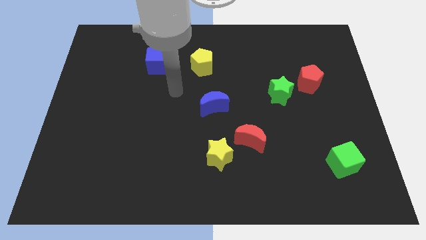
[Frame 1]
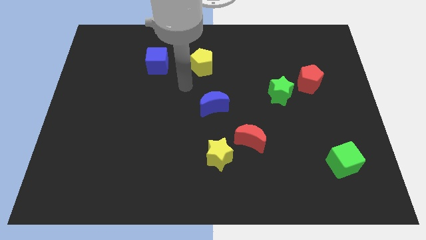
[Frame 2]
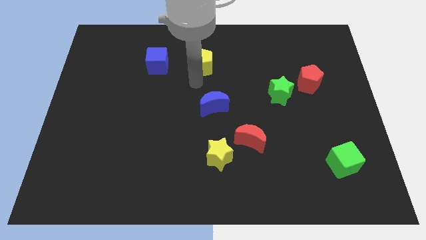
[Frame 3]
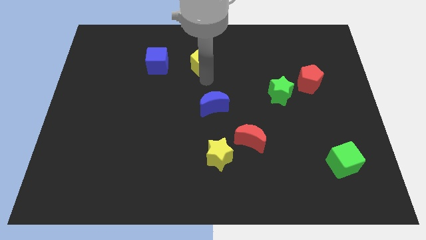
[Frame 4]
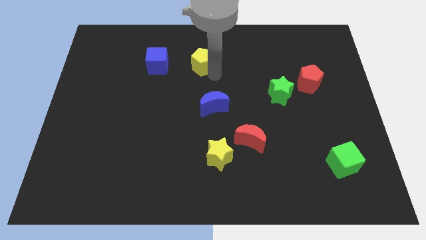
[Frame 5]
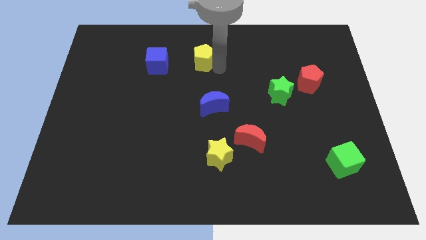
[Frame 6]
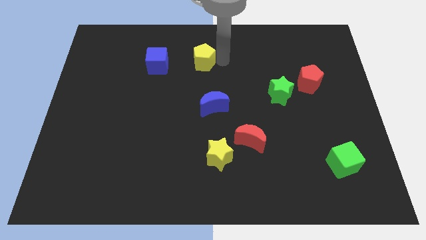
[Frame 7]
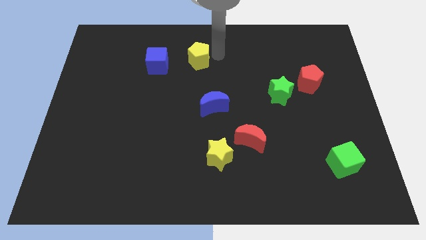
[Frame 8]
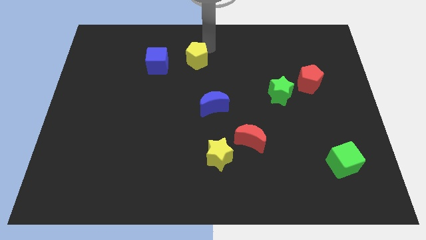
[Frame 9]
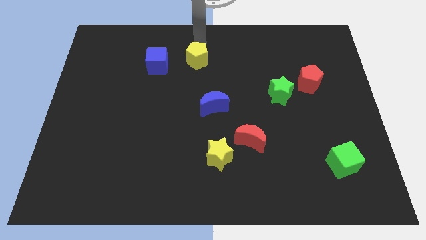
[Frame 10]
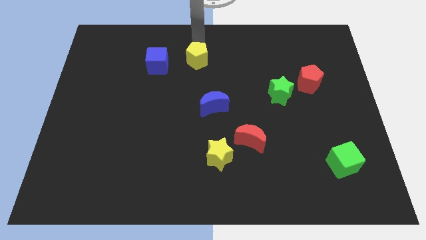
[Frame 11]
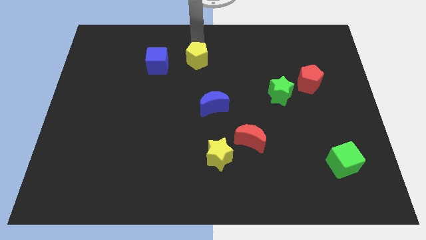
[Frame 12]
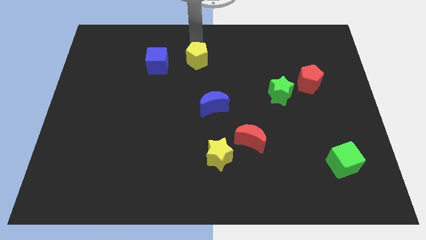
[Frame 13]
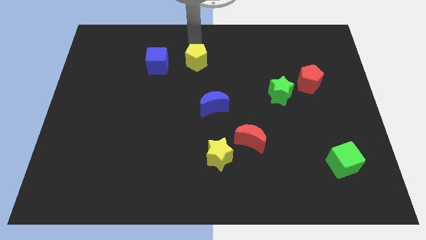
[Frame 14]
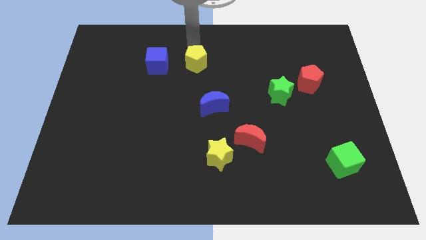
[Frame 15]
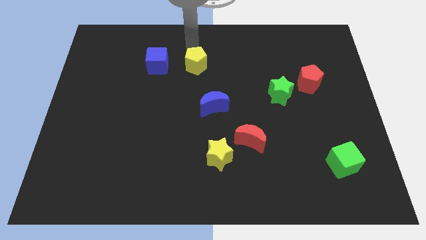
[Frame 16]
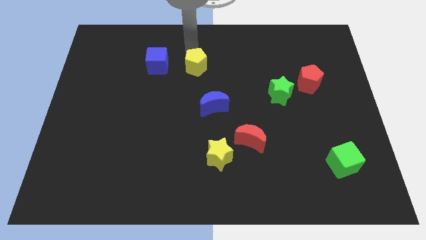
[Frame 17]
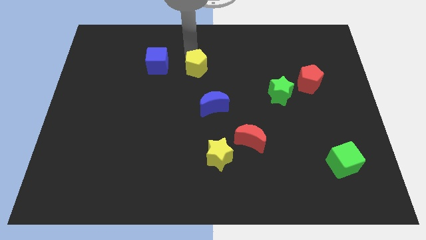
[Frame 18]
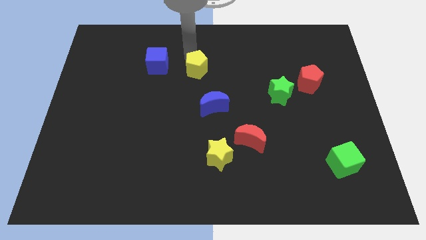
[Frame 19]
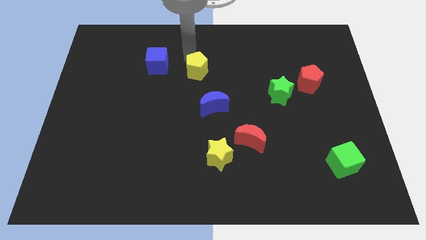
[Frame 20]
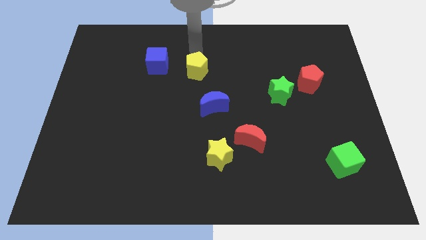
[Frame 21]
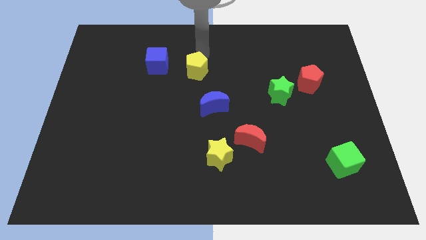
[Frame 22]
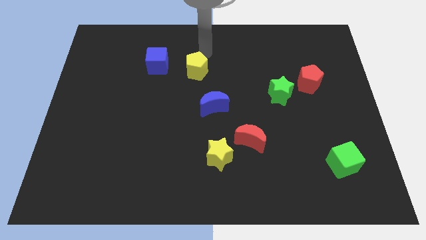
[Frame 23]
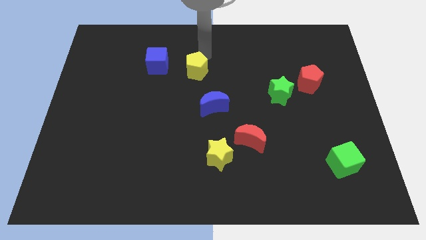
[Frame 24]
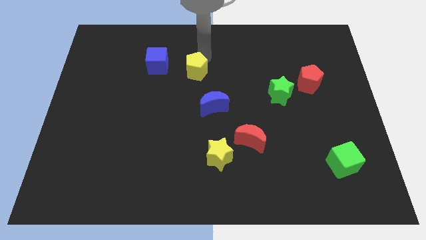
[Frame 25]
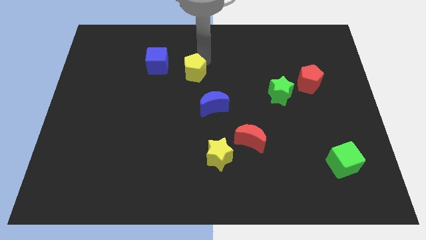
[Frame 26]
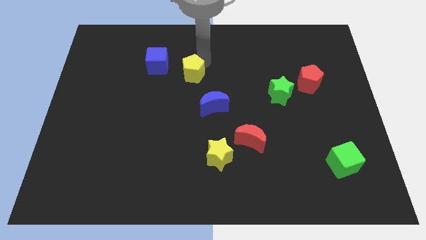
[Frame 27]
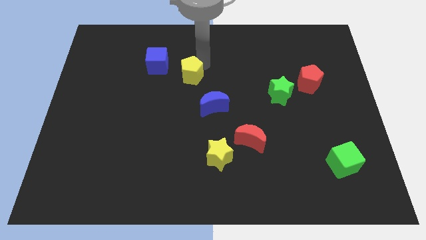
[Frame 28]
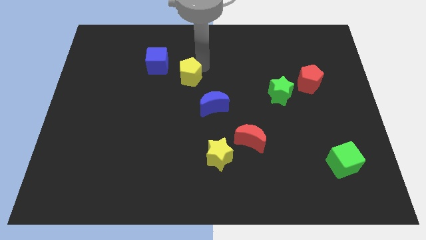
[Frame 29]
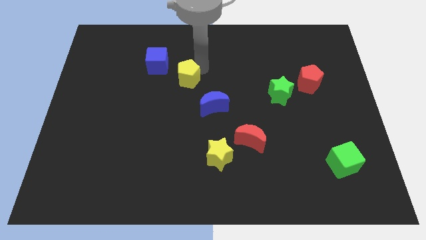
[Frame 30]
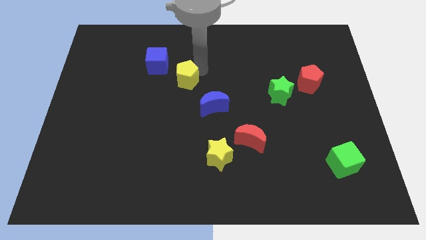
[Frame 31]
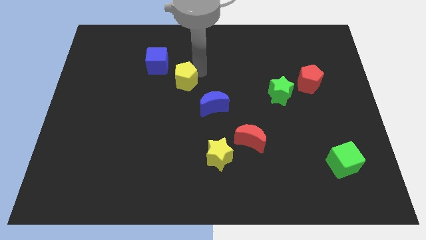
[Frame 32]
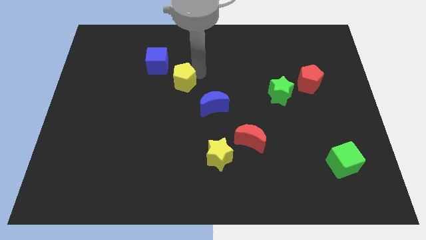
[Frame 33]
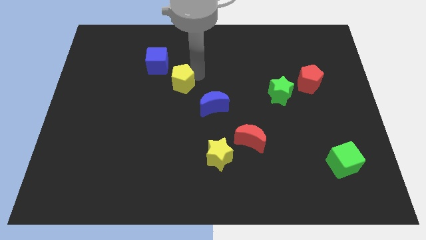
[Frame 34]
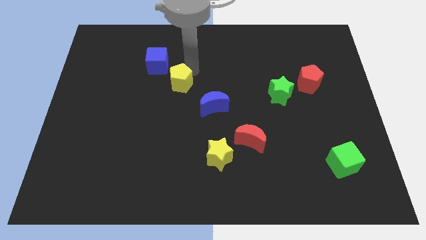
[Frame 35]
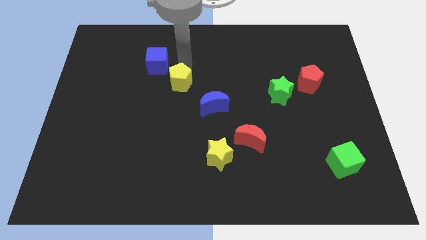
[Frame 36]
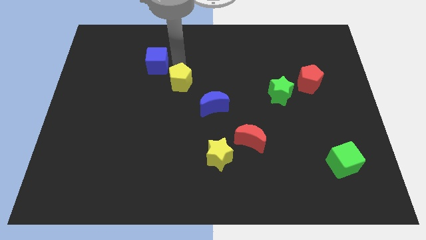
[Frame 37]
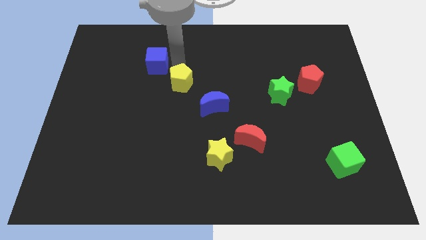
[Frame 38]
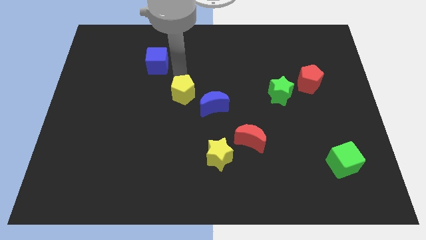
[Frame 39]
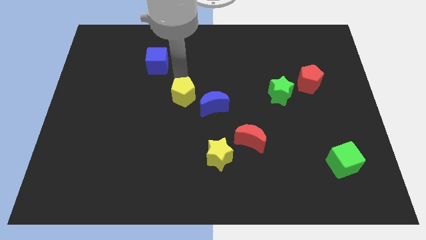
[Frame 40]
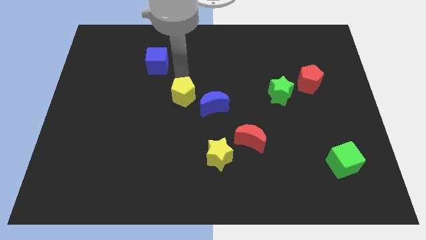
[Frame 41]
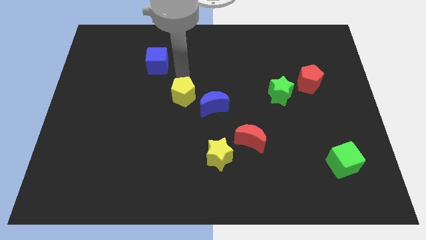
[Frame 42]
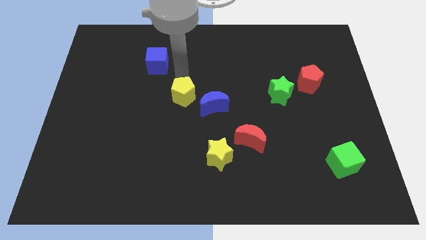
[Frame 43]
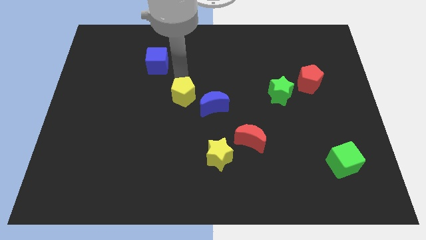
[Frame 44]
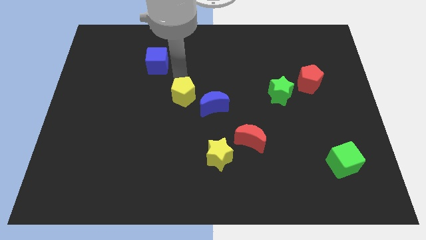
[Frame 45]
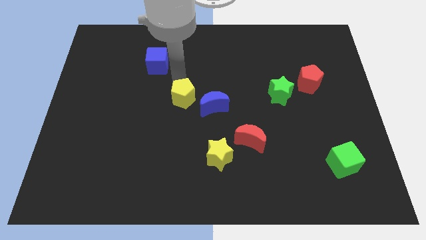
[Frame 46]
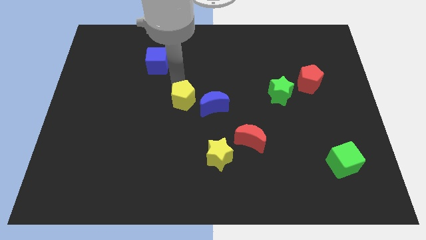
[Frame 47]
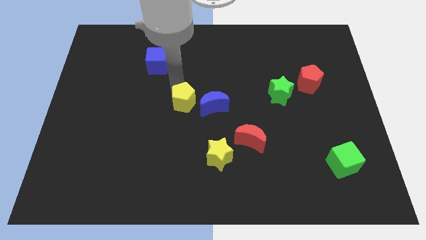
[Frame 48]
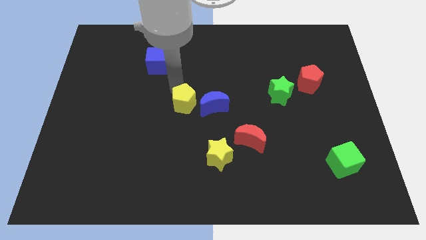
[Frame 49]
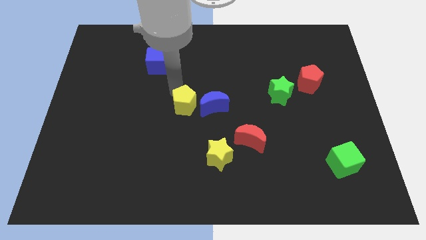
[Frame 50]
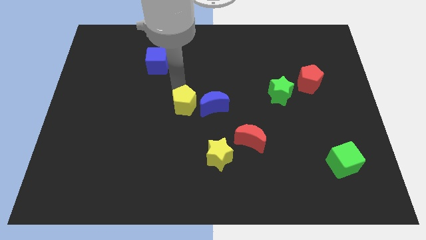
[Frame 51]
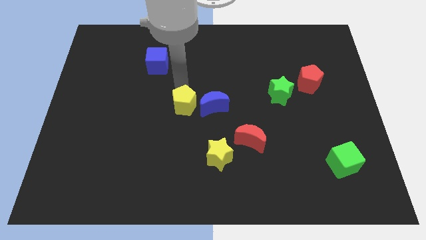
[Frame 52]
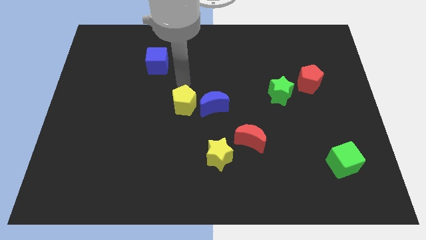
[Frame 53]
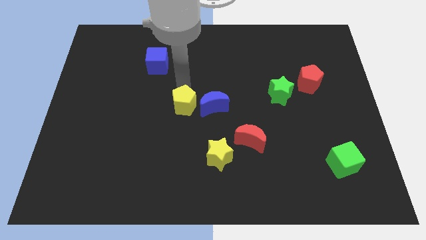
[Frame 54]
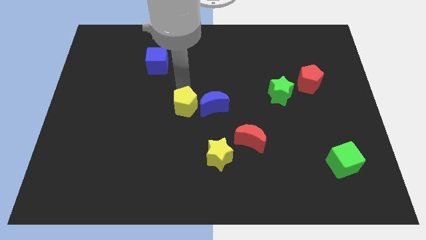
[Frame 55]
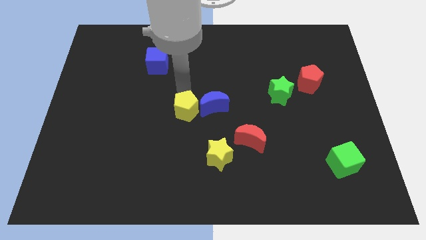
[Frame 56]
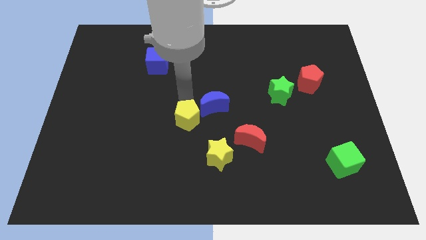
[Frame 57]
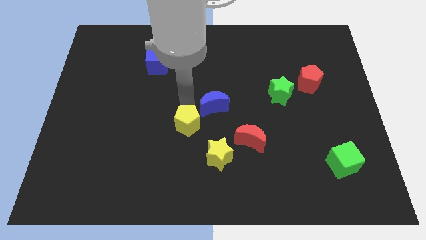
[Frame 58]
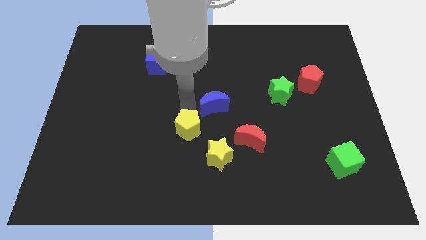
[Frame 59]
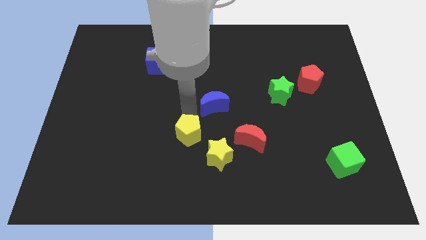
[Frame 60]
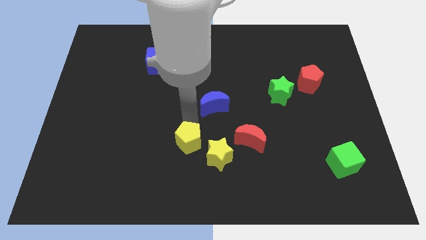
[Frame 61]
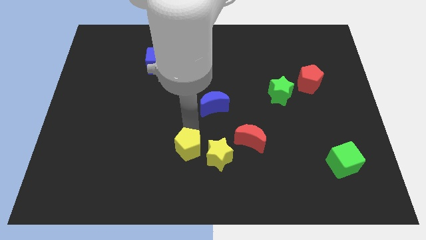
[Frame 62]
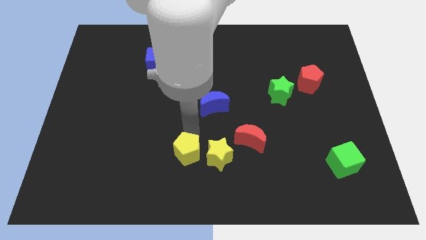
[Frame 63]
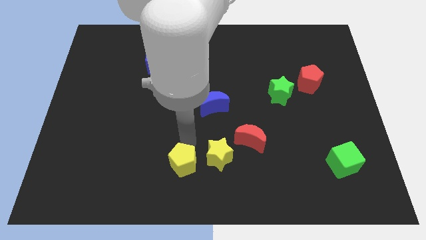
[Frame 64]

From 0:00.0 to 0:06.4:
put the yellow pentagon to the bottom
